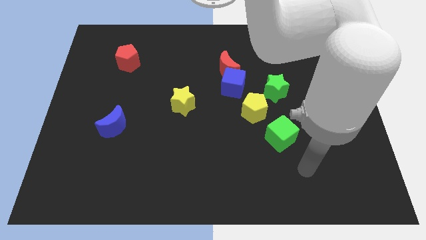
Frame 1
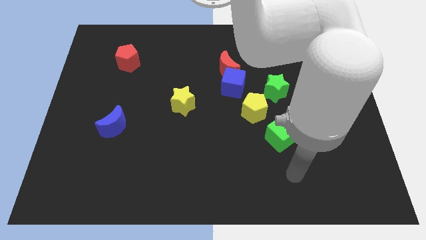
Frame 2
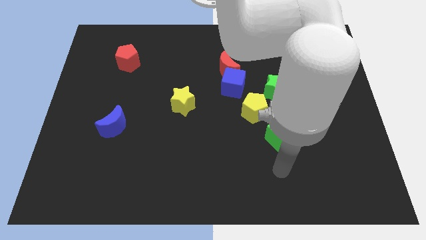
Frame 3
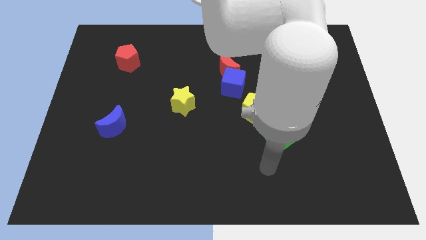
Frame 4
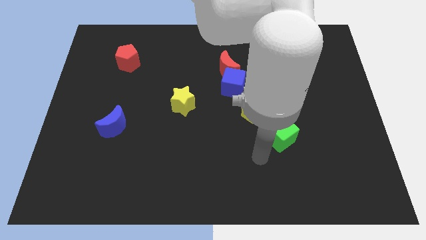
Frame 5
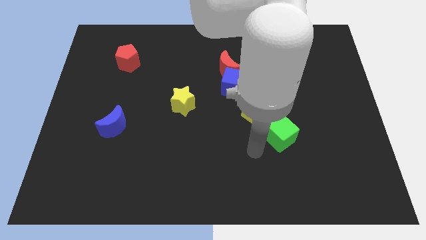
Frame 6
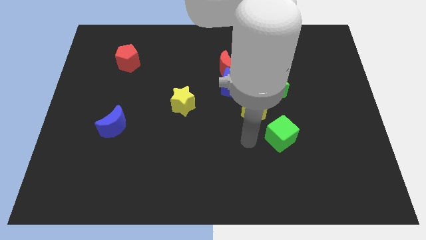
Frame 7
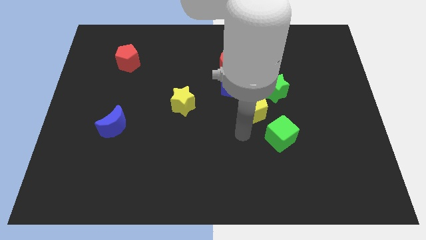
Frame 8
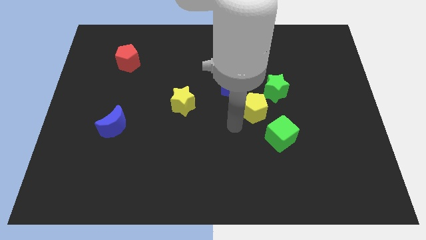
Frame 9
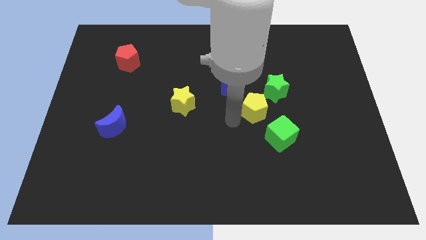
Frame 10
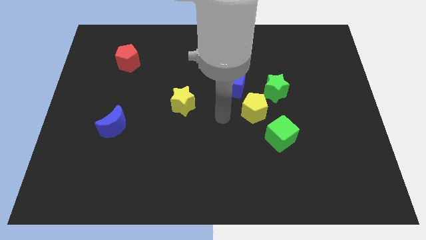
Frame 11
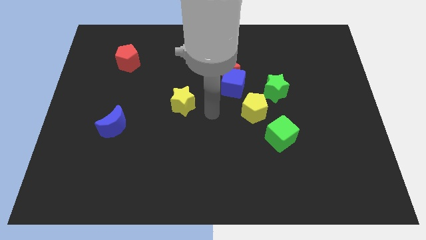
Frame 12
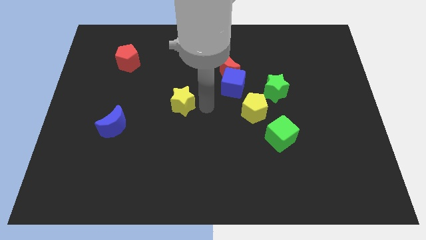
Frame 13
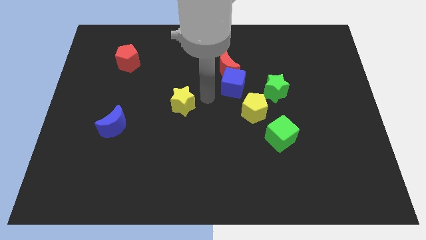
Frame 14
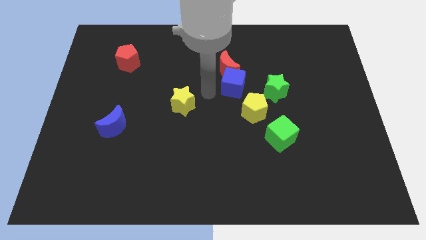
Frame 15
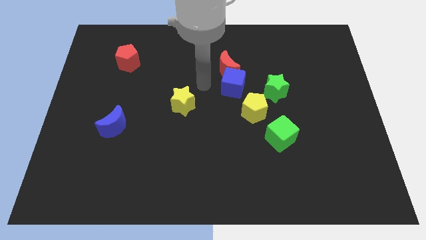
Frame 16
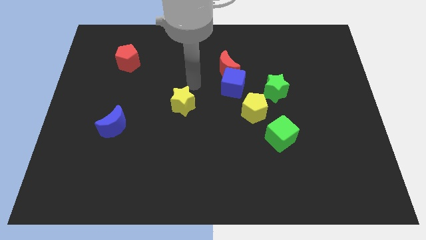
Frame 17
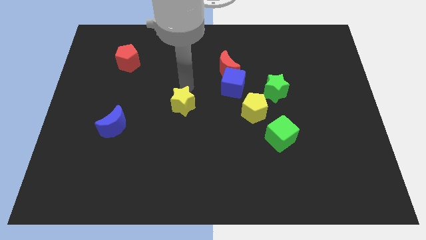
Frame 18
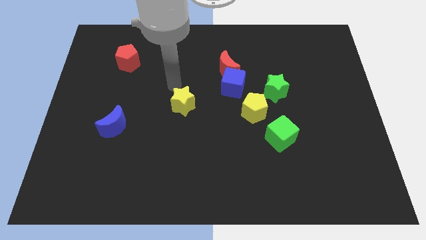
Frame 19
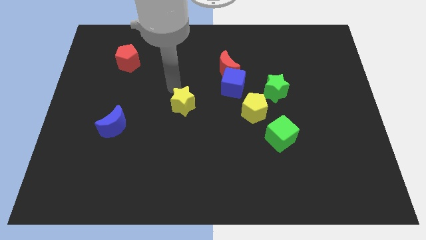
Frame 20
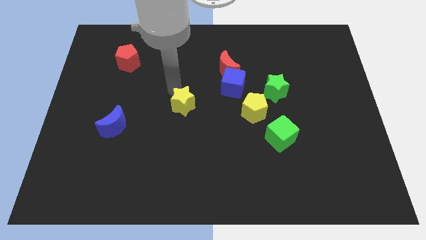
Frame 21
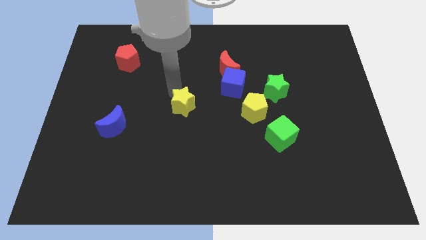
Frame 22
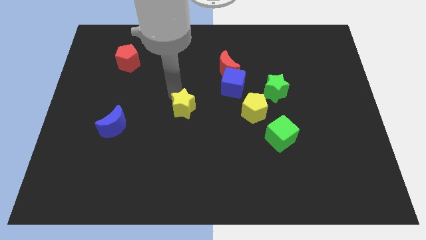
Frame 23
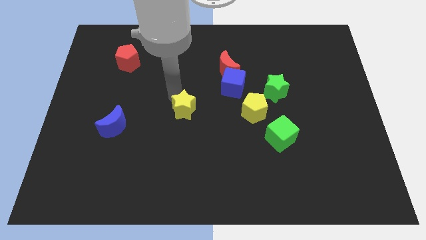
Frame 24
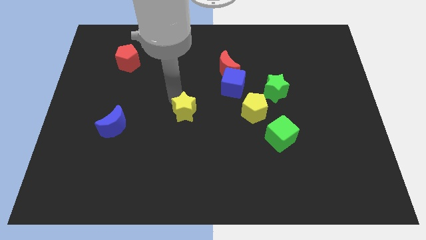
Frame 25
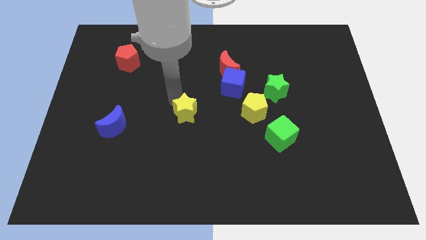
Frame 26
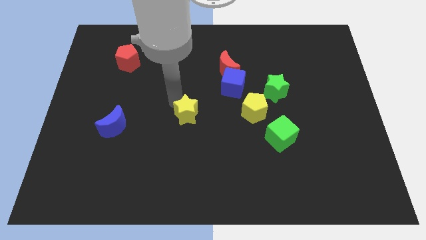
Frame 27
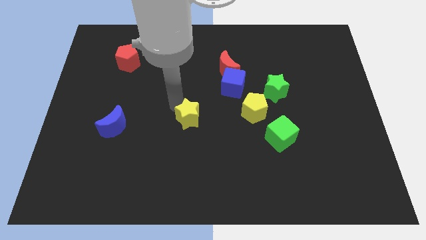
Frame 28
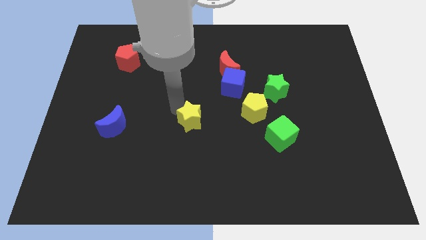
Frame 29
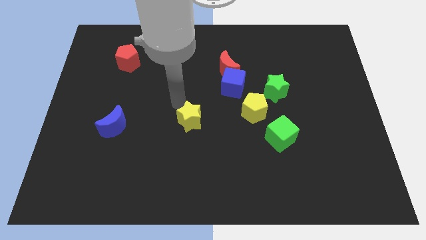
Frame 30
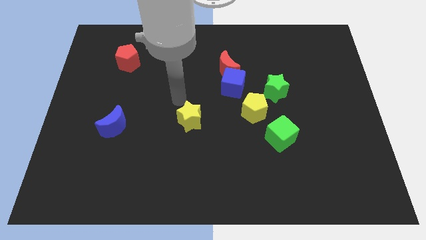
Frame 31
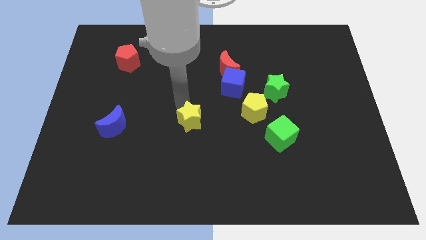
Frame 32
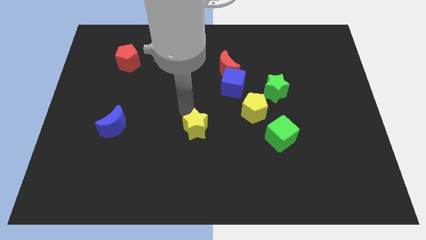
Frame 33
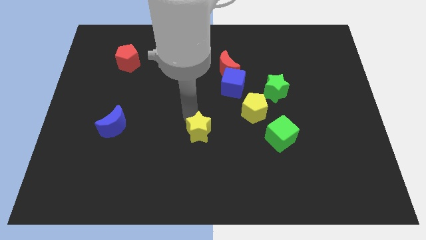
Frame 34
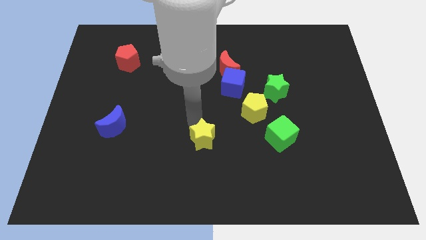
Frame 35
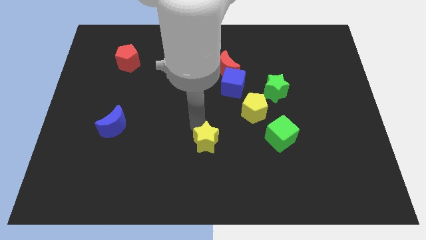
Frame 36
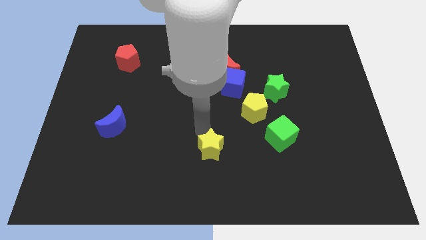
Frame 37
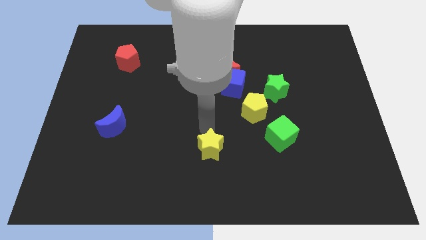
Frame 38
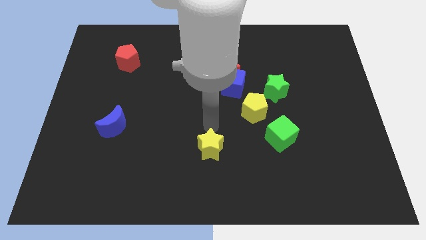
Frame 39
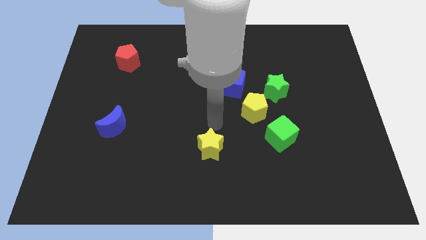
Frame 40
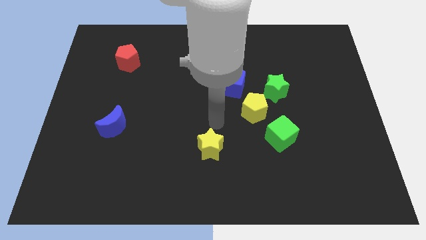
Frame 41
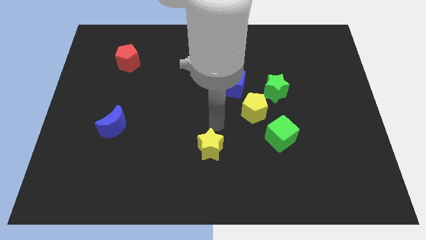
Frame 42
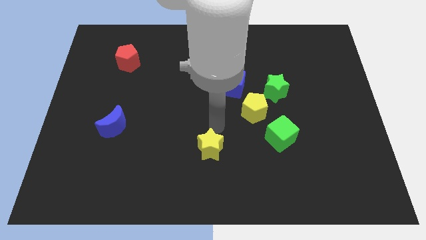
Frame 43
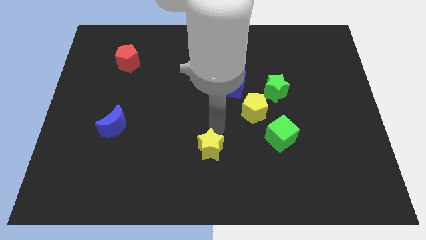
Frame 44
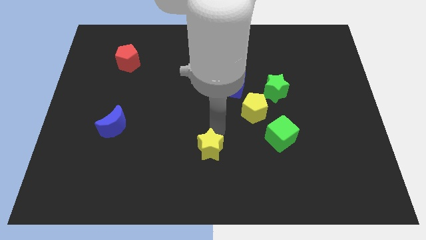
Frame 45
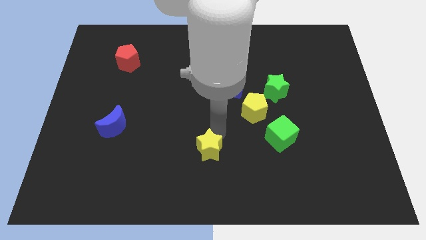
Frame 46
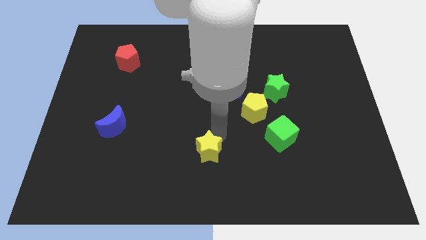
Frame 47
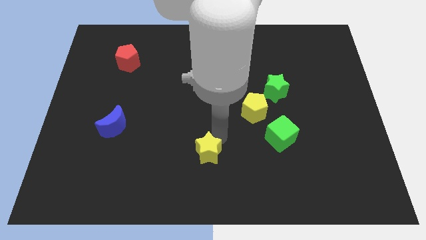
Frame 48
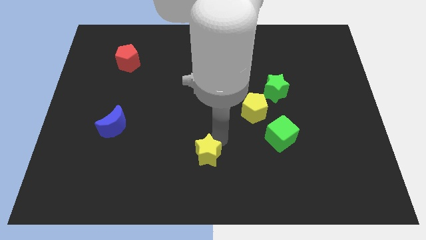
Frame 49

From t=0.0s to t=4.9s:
put the yellow star to the bottom

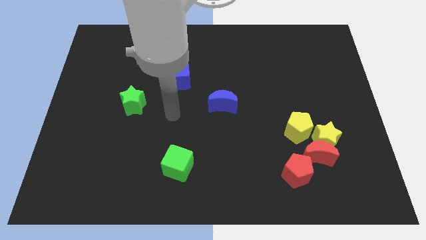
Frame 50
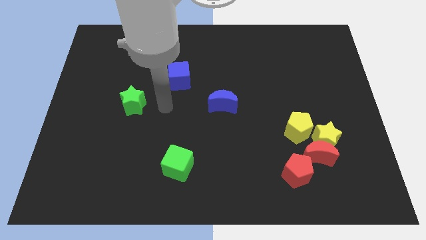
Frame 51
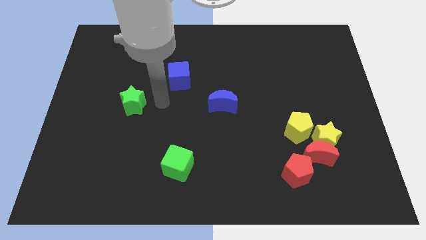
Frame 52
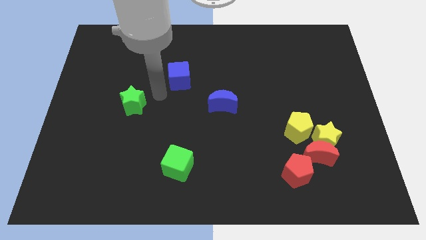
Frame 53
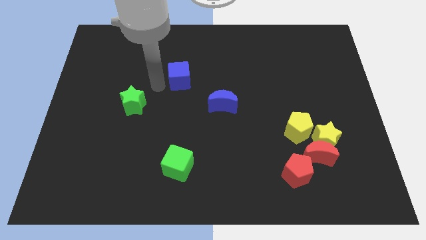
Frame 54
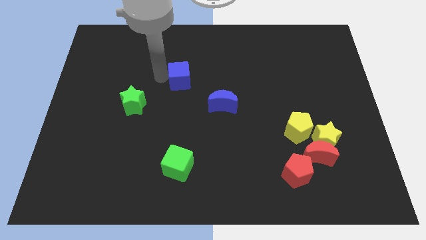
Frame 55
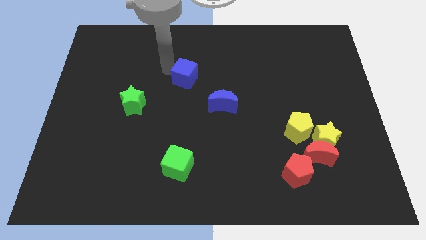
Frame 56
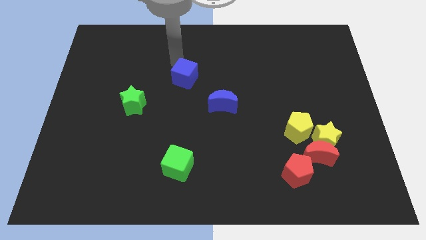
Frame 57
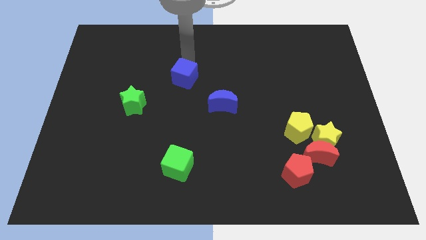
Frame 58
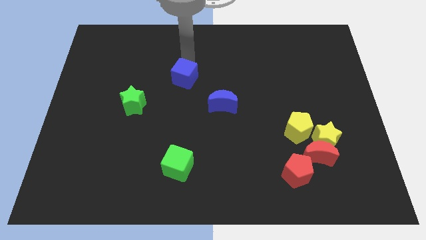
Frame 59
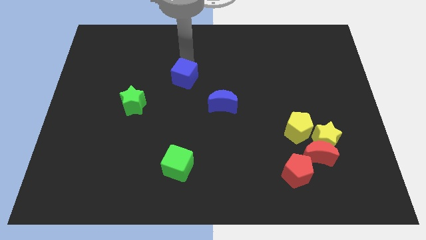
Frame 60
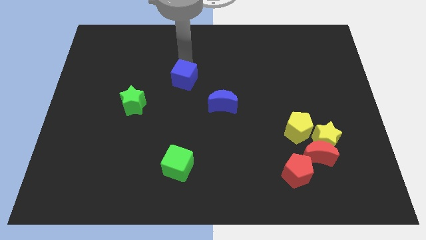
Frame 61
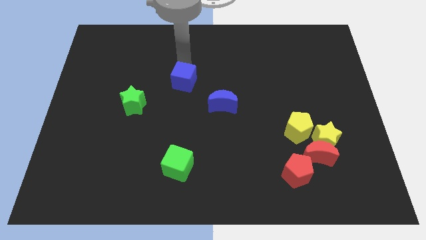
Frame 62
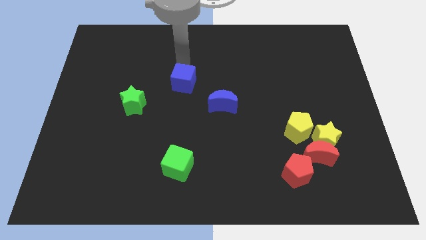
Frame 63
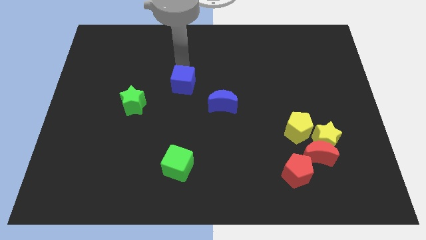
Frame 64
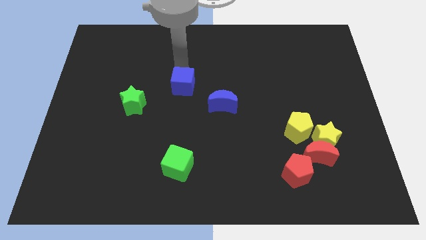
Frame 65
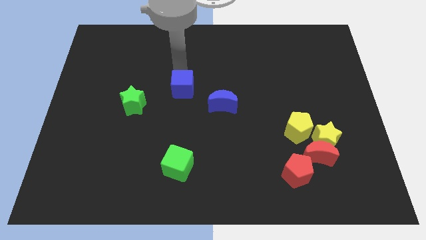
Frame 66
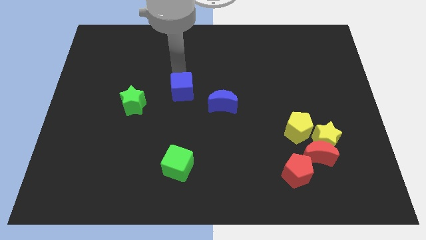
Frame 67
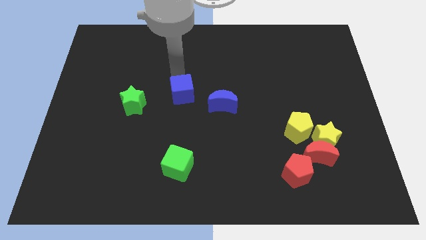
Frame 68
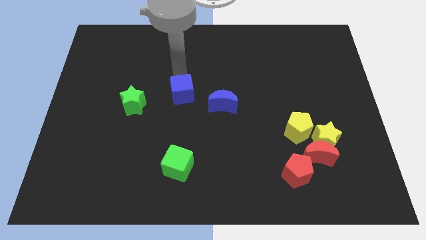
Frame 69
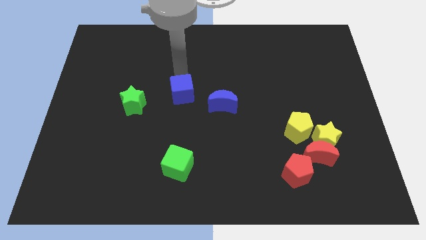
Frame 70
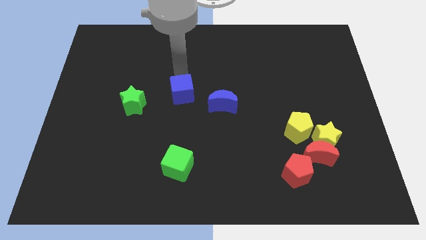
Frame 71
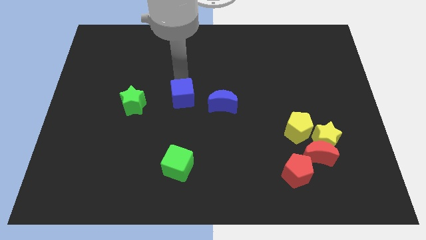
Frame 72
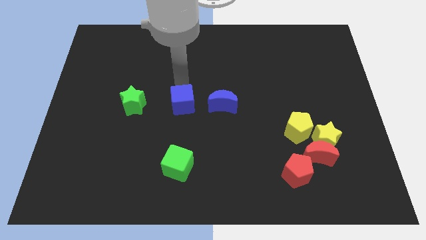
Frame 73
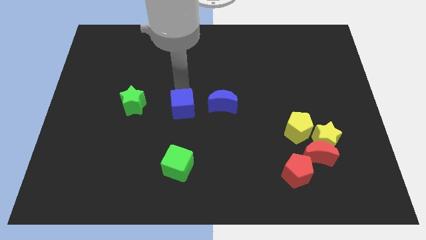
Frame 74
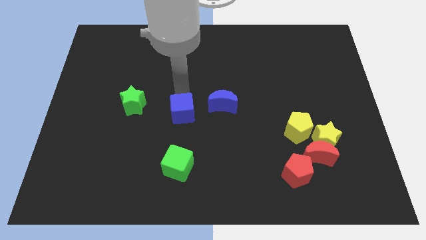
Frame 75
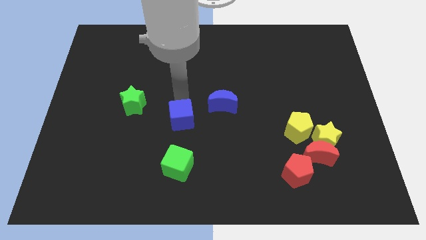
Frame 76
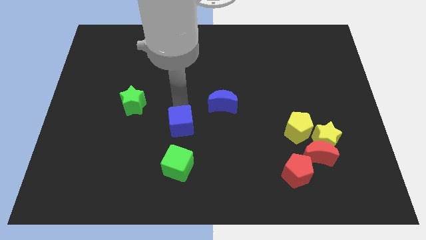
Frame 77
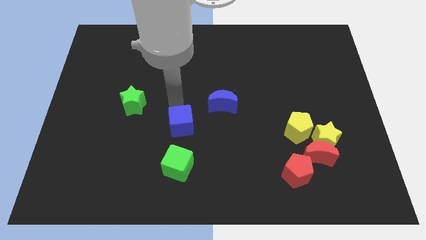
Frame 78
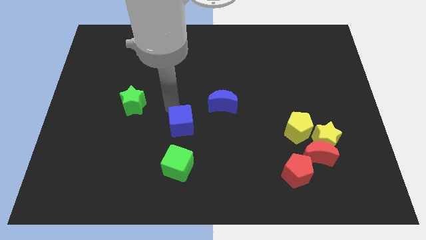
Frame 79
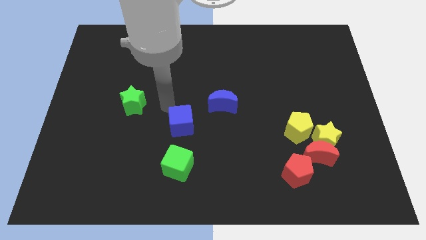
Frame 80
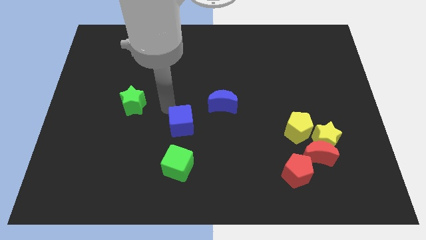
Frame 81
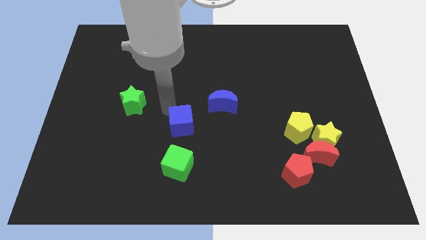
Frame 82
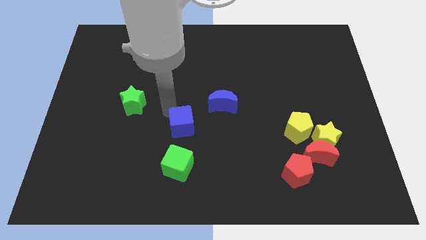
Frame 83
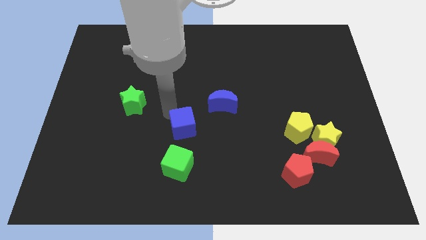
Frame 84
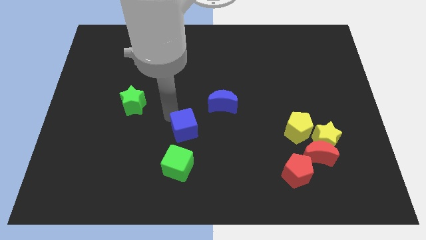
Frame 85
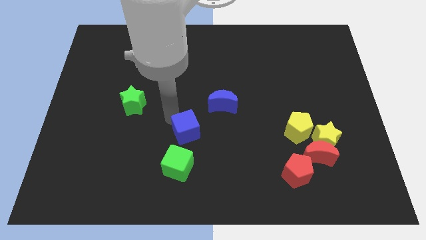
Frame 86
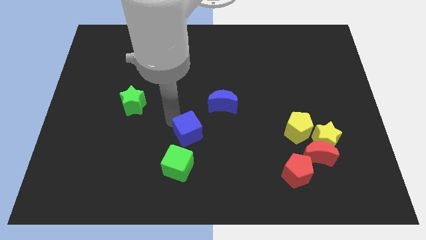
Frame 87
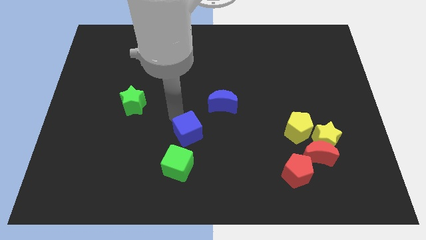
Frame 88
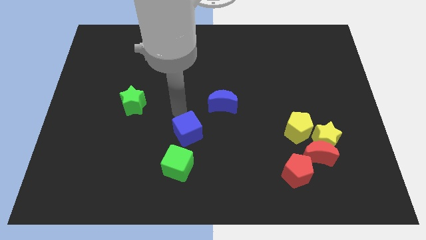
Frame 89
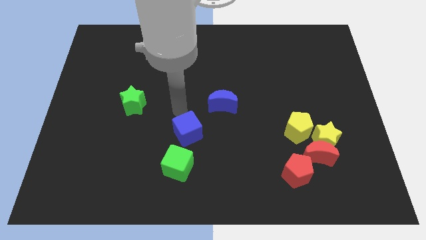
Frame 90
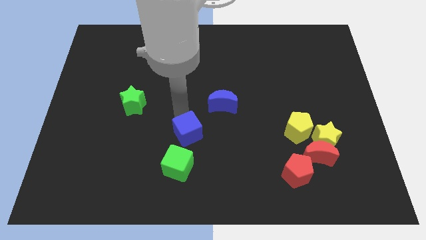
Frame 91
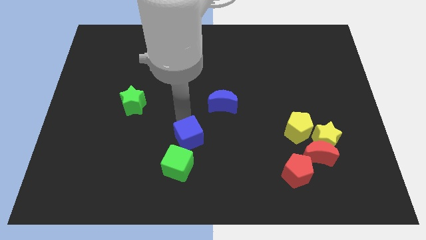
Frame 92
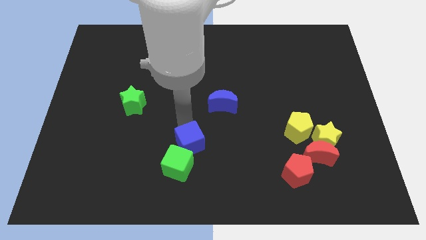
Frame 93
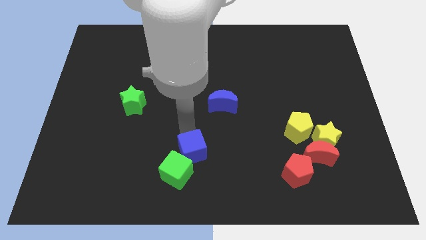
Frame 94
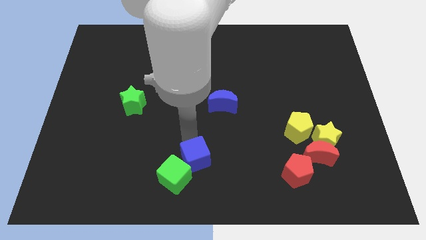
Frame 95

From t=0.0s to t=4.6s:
push the blue cube to the bottom side
